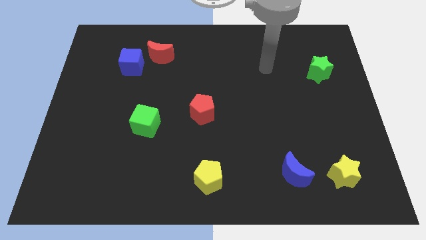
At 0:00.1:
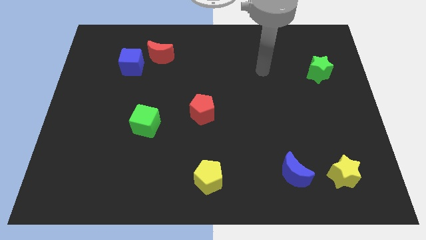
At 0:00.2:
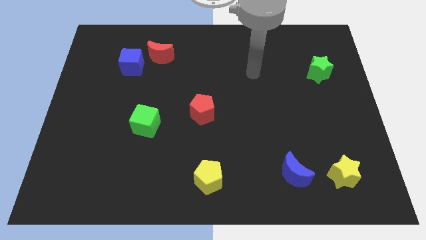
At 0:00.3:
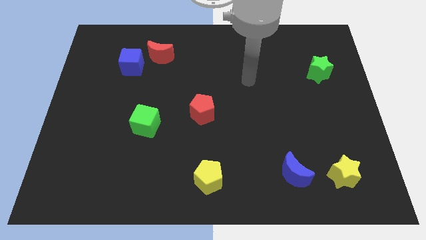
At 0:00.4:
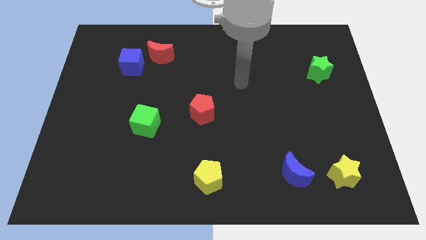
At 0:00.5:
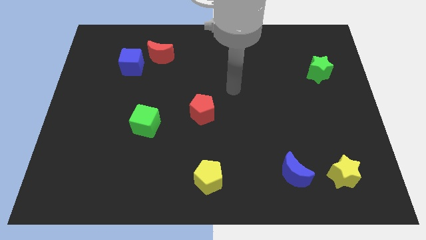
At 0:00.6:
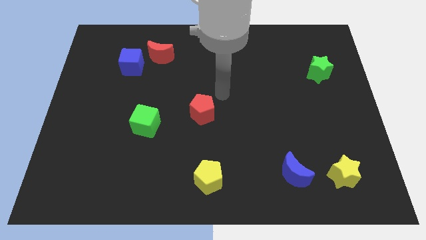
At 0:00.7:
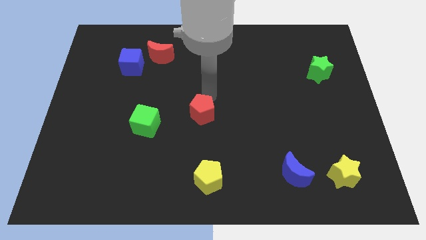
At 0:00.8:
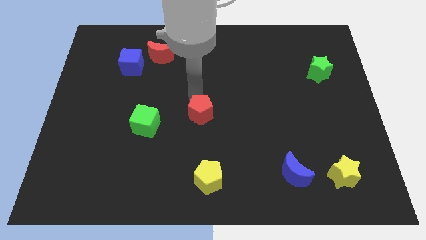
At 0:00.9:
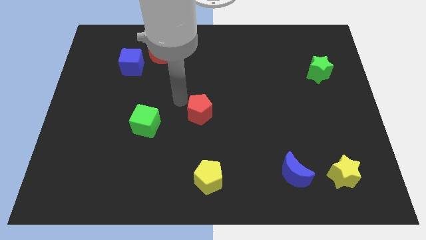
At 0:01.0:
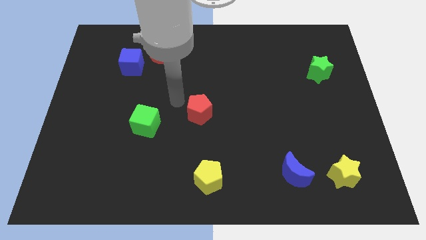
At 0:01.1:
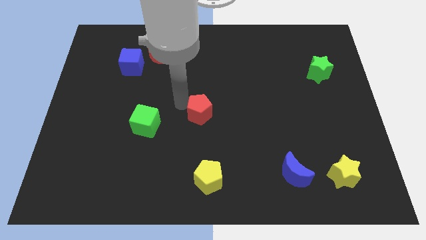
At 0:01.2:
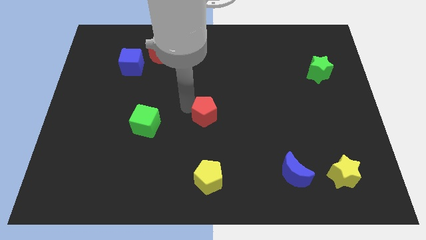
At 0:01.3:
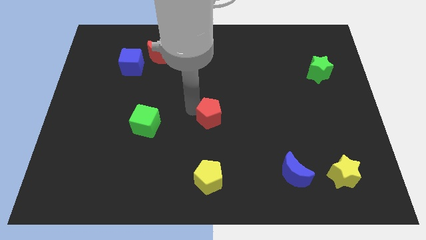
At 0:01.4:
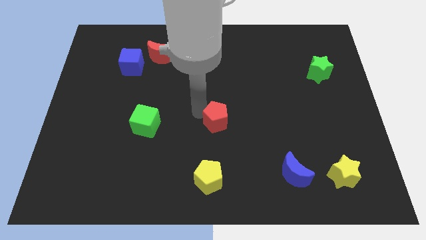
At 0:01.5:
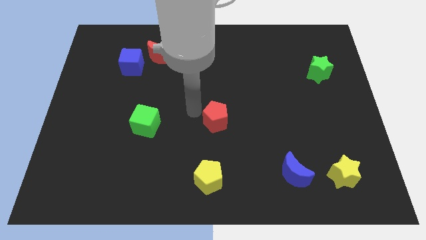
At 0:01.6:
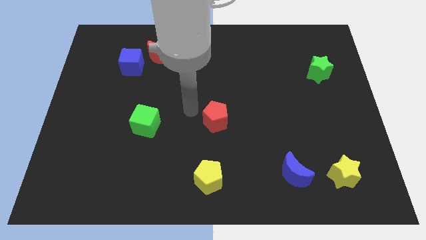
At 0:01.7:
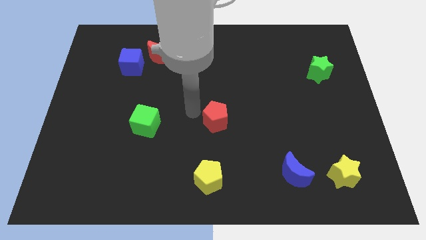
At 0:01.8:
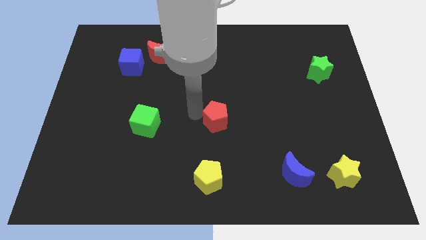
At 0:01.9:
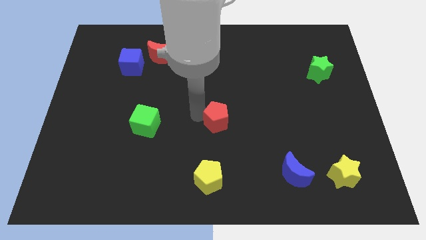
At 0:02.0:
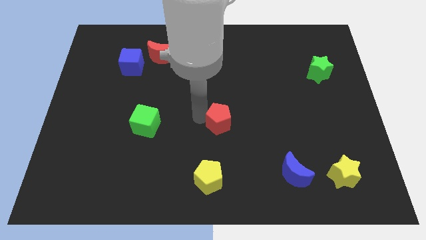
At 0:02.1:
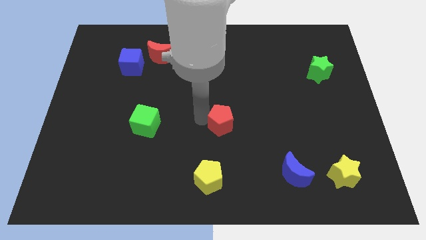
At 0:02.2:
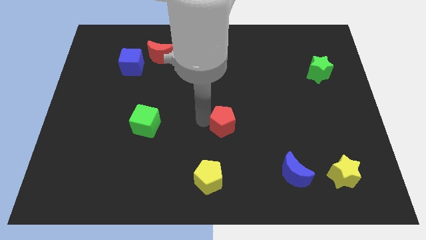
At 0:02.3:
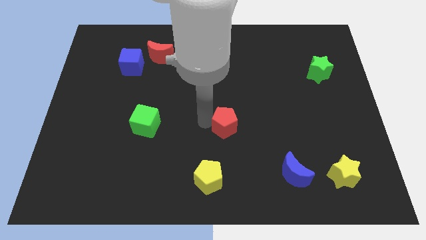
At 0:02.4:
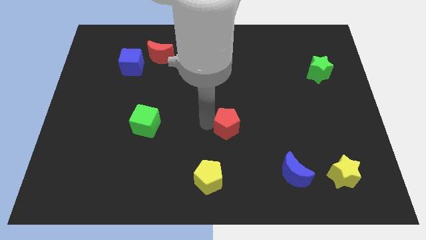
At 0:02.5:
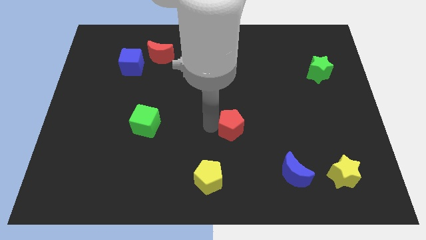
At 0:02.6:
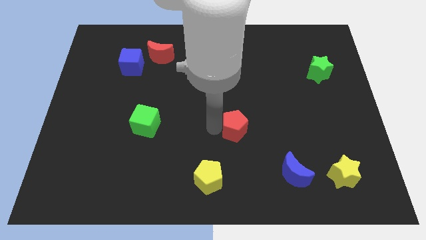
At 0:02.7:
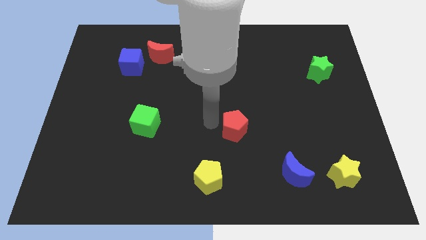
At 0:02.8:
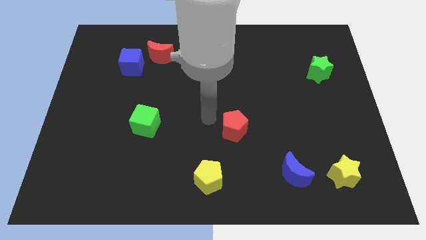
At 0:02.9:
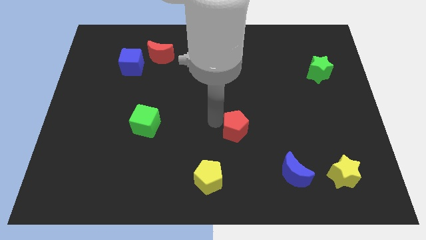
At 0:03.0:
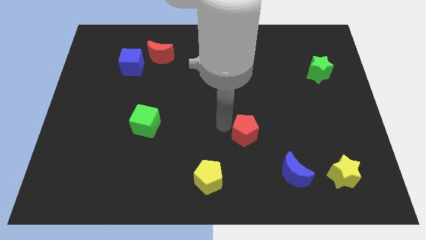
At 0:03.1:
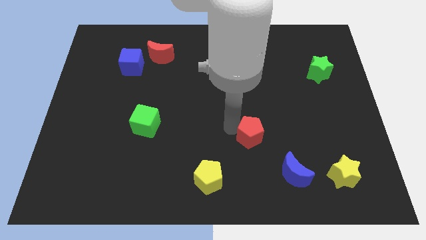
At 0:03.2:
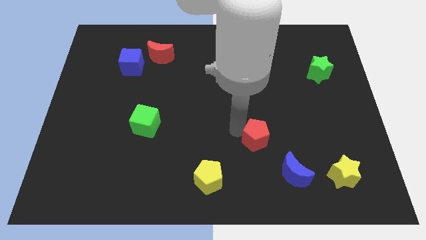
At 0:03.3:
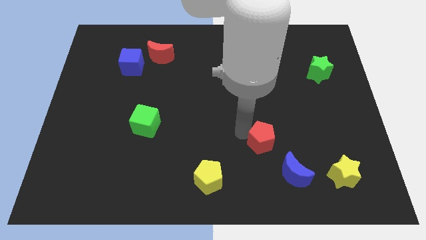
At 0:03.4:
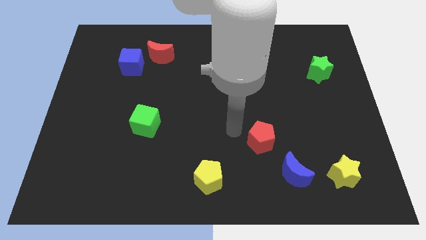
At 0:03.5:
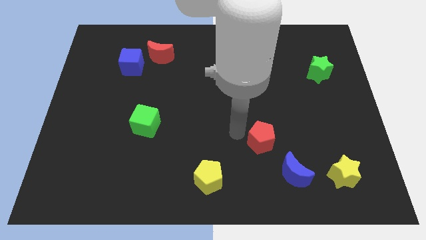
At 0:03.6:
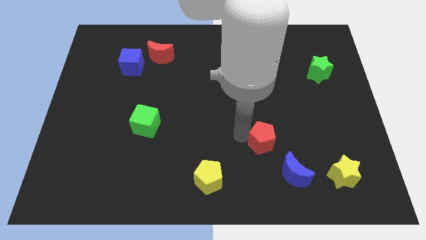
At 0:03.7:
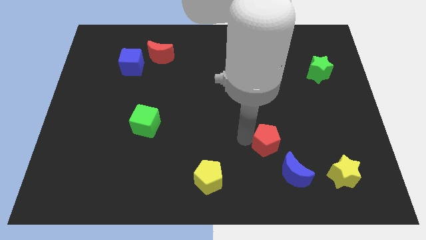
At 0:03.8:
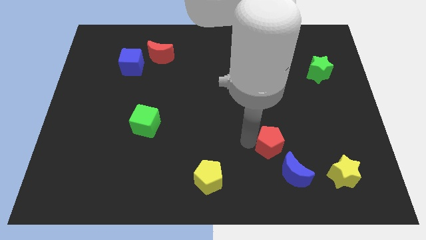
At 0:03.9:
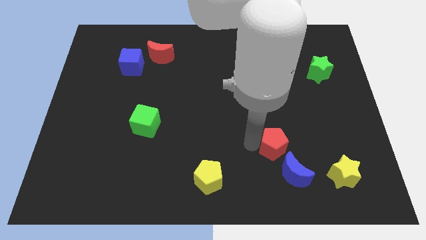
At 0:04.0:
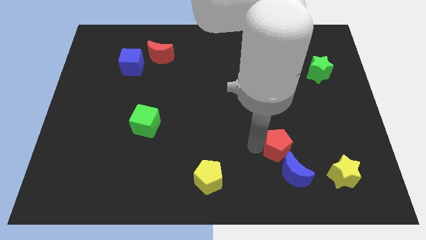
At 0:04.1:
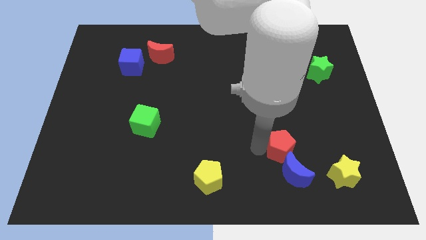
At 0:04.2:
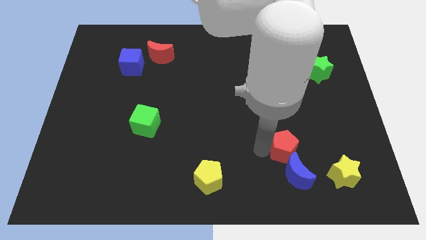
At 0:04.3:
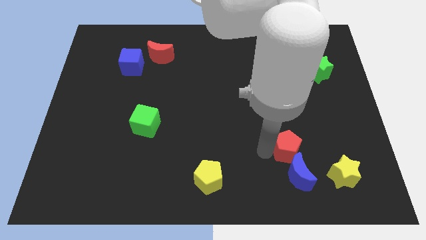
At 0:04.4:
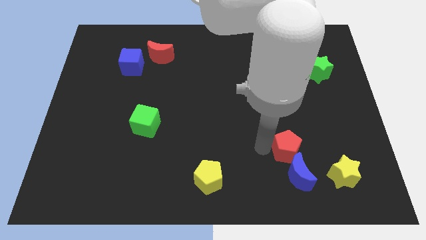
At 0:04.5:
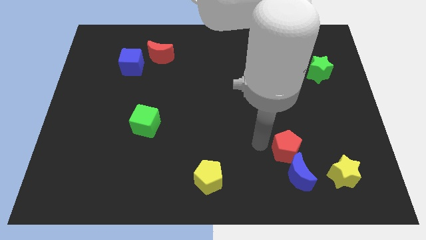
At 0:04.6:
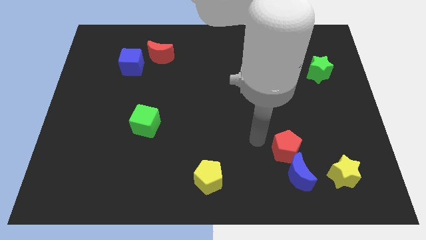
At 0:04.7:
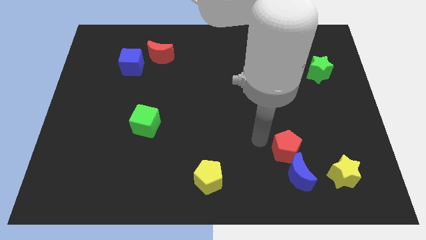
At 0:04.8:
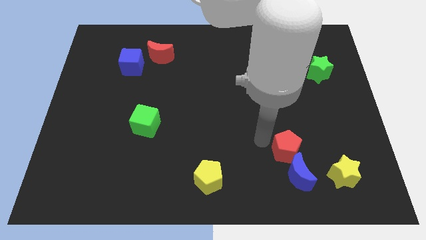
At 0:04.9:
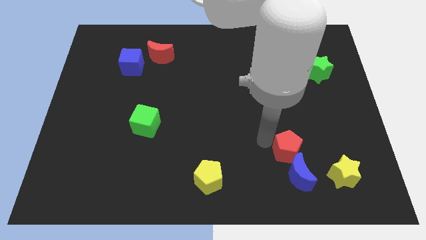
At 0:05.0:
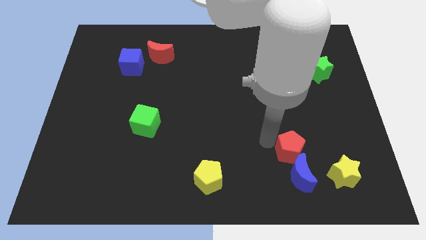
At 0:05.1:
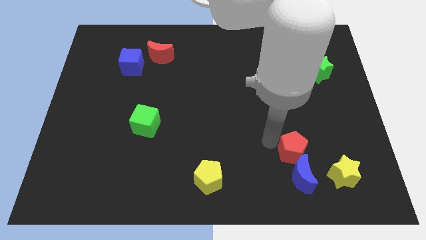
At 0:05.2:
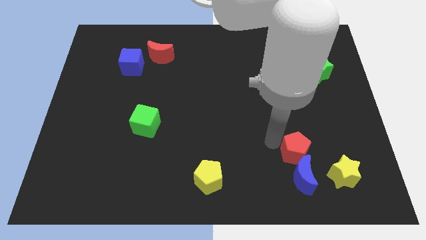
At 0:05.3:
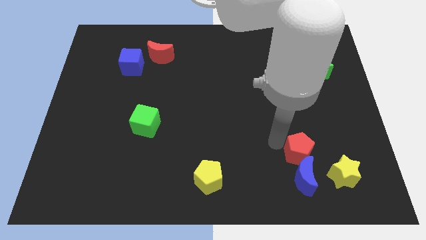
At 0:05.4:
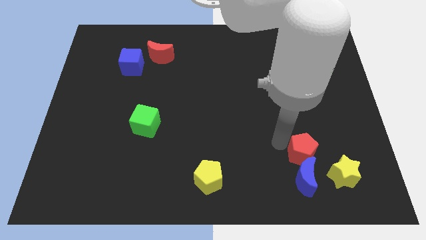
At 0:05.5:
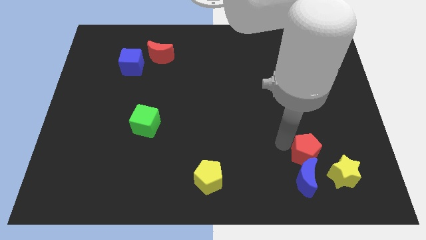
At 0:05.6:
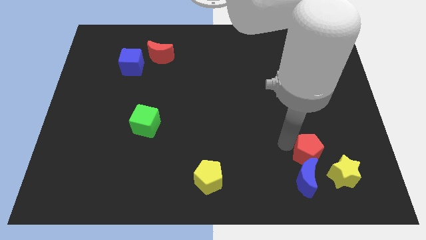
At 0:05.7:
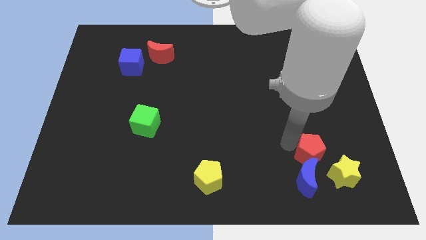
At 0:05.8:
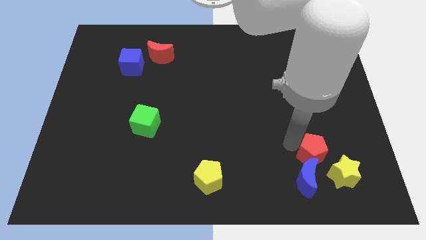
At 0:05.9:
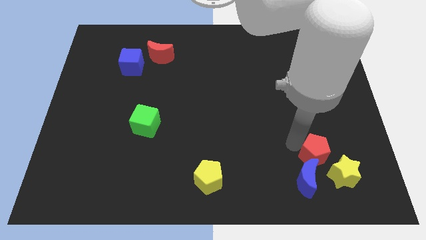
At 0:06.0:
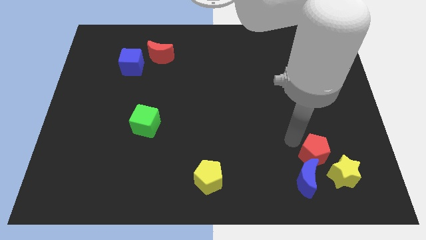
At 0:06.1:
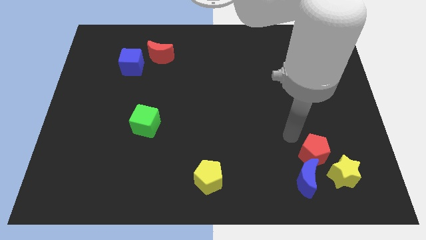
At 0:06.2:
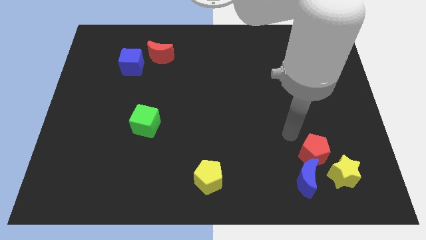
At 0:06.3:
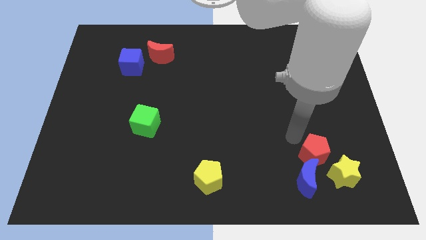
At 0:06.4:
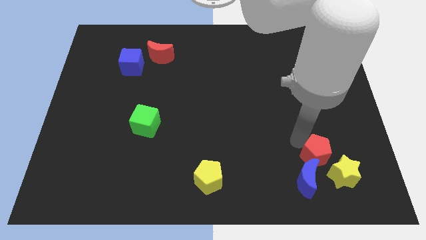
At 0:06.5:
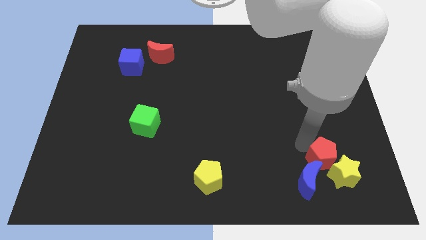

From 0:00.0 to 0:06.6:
slide the red pentagon close to the yellow star
